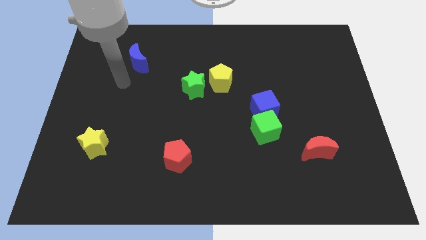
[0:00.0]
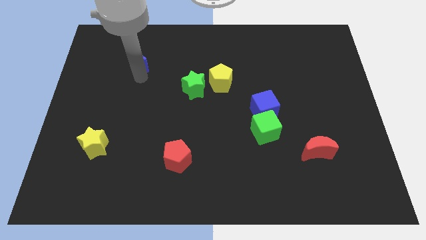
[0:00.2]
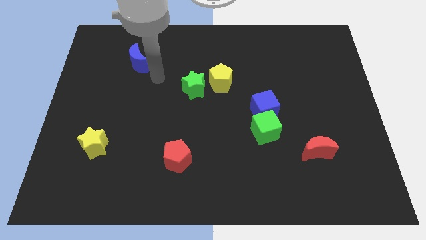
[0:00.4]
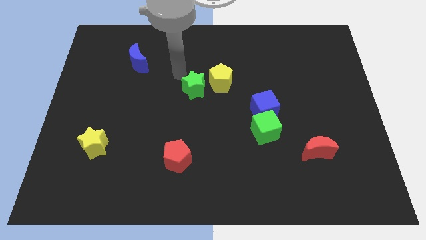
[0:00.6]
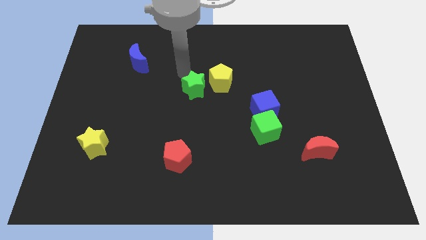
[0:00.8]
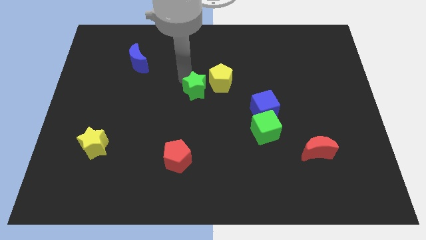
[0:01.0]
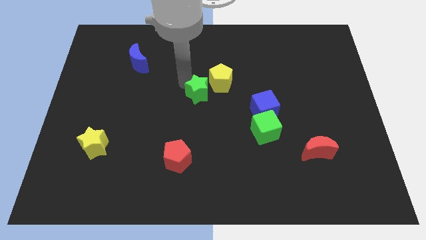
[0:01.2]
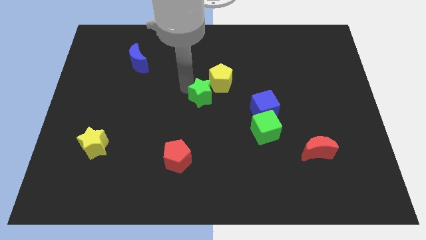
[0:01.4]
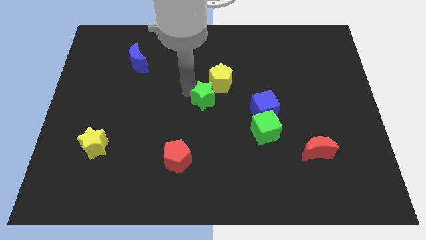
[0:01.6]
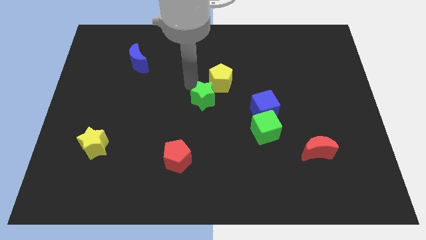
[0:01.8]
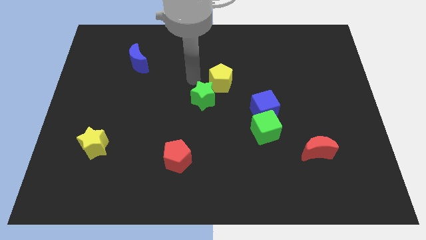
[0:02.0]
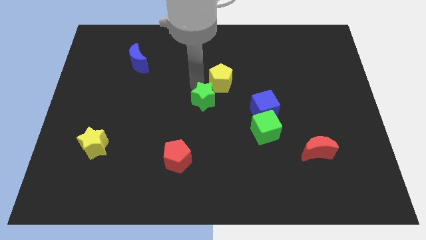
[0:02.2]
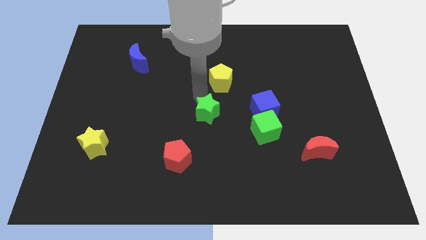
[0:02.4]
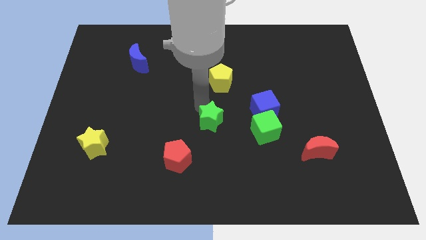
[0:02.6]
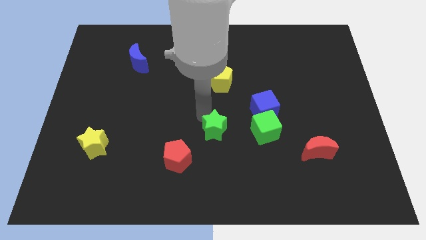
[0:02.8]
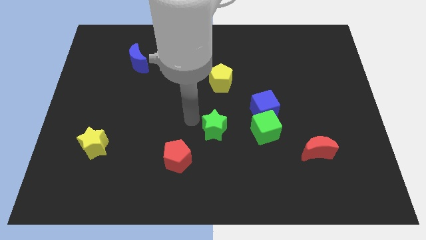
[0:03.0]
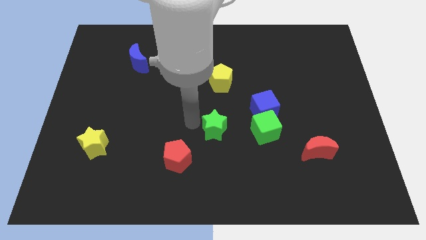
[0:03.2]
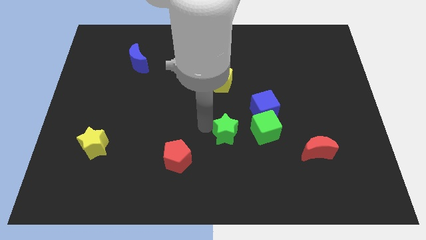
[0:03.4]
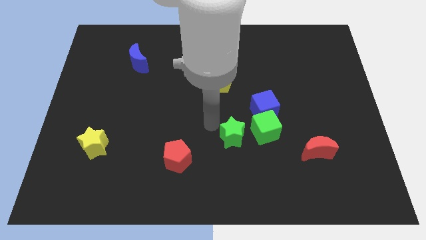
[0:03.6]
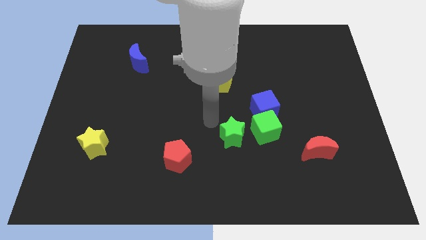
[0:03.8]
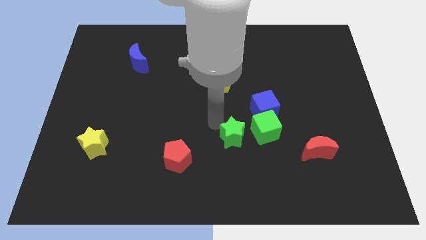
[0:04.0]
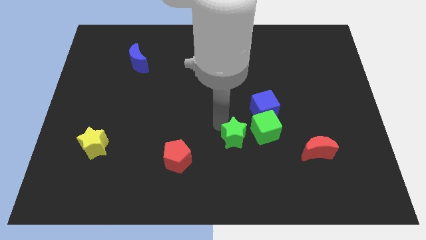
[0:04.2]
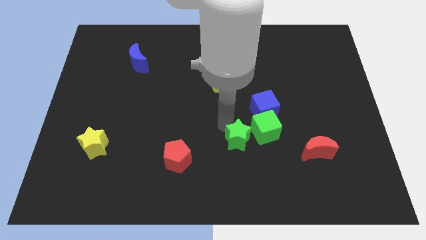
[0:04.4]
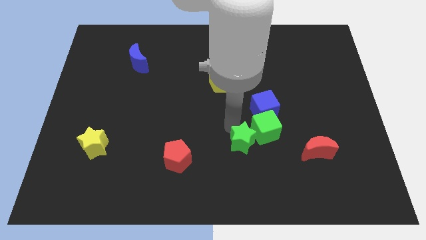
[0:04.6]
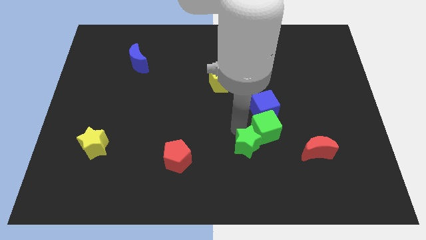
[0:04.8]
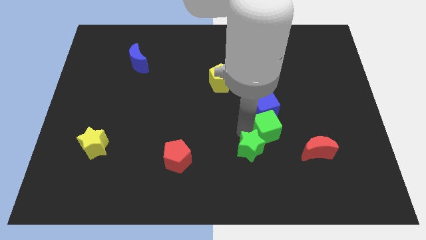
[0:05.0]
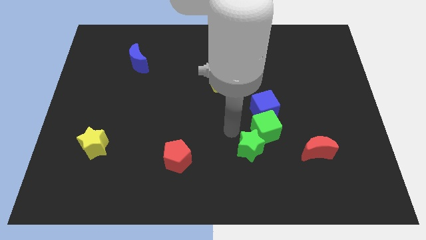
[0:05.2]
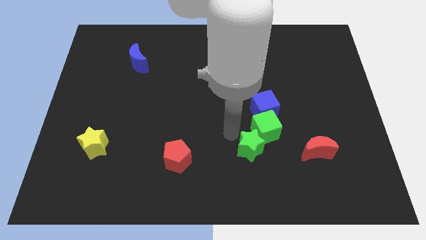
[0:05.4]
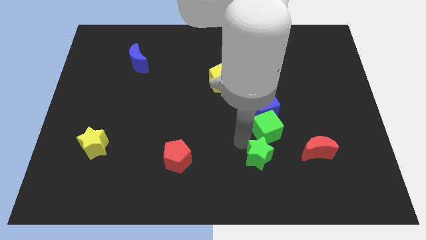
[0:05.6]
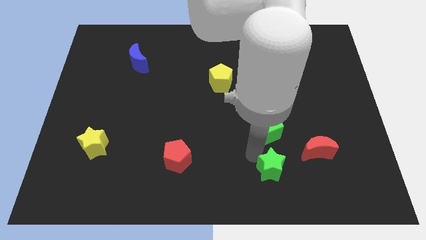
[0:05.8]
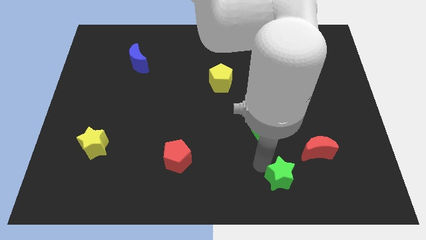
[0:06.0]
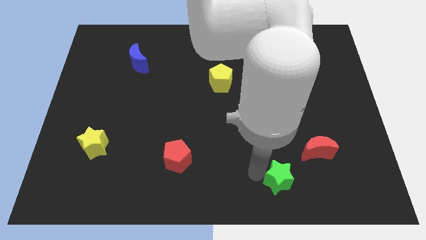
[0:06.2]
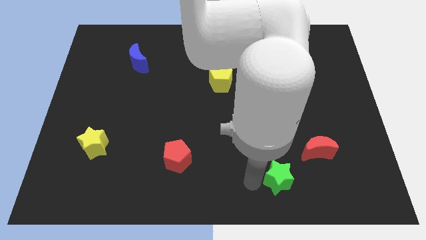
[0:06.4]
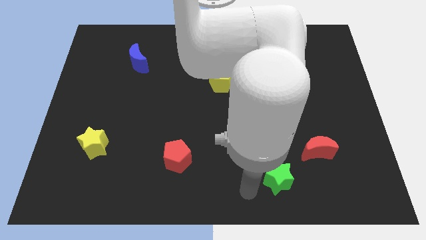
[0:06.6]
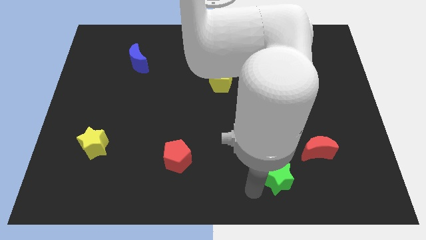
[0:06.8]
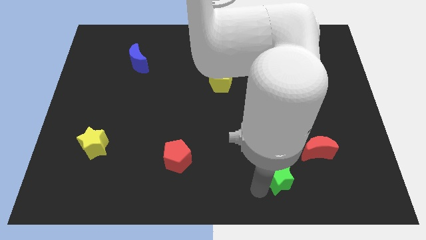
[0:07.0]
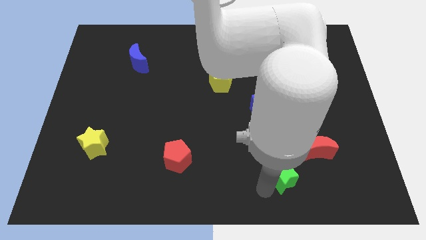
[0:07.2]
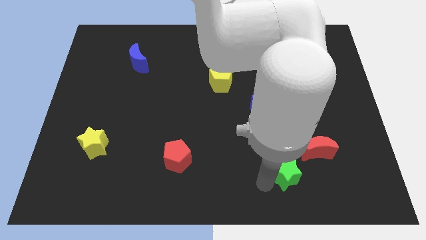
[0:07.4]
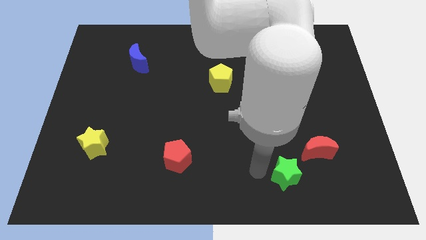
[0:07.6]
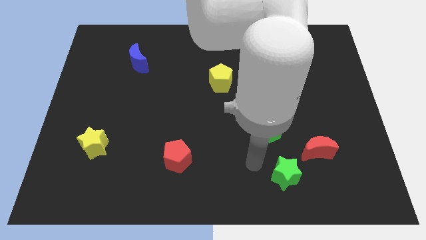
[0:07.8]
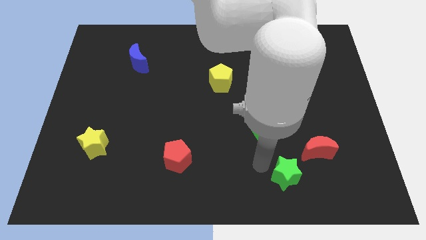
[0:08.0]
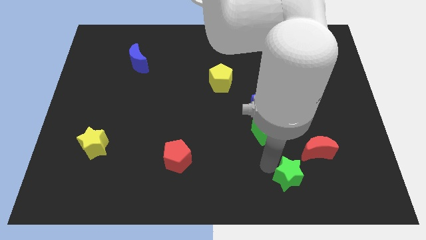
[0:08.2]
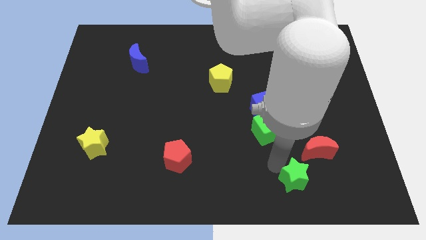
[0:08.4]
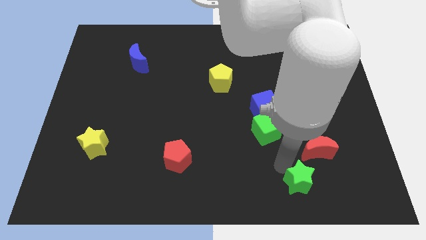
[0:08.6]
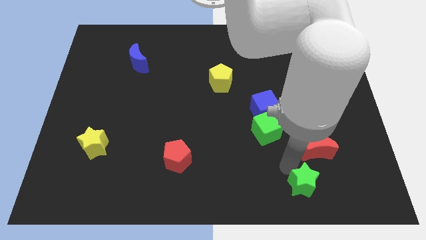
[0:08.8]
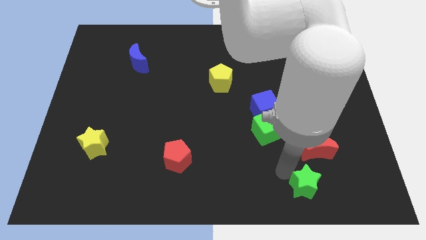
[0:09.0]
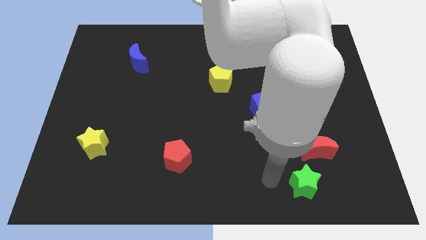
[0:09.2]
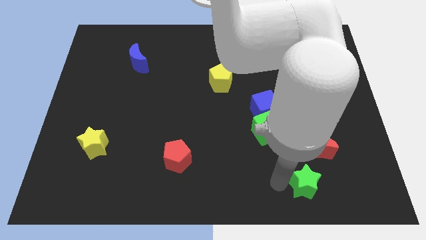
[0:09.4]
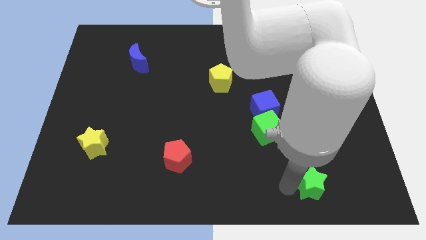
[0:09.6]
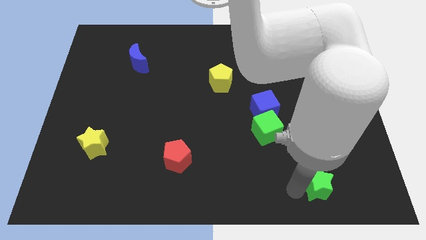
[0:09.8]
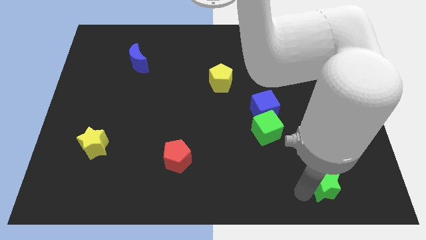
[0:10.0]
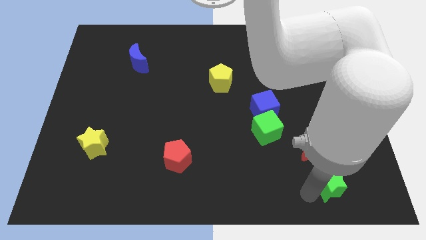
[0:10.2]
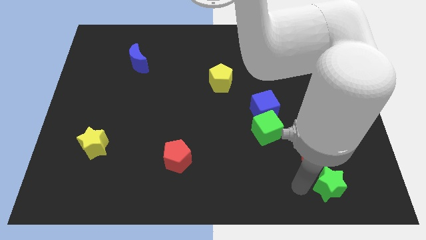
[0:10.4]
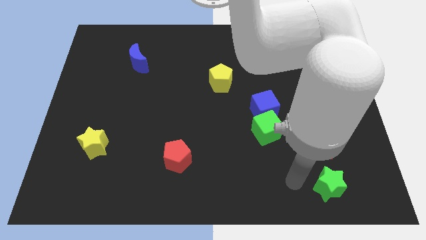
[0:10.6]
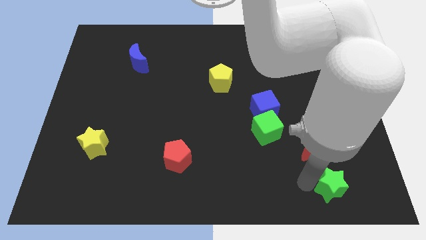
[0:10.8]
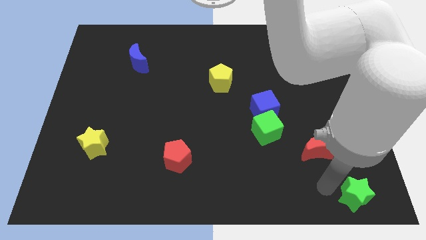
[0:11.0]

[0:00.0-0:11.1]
move the green star to the bottom right corner

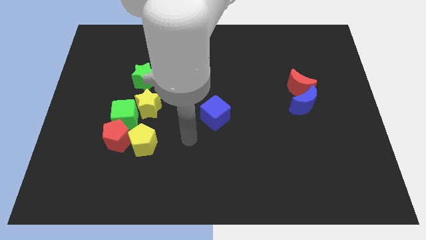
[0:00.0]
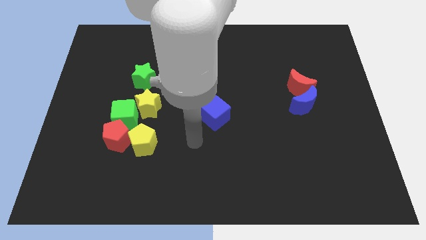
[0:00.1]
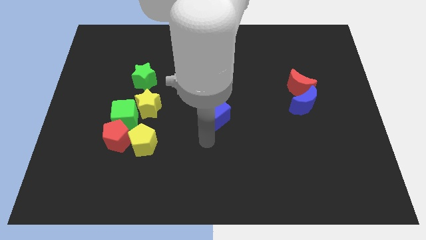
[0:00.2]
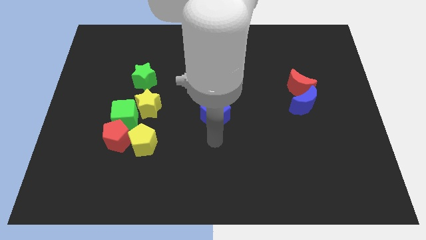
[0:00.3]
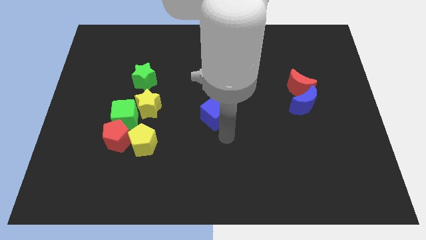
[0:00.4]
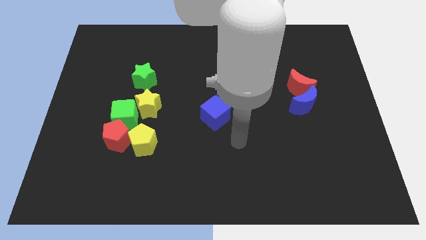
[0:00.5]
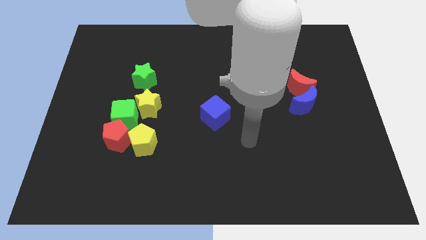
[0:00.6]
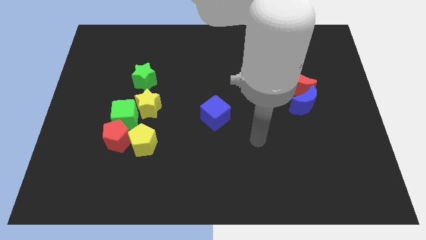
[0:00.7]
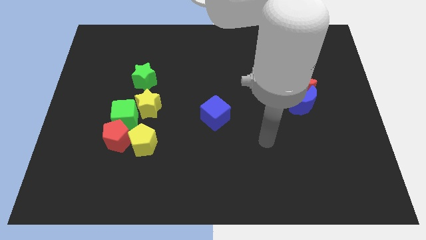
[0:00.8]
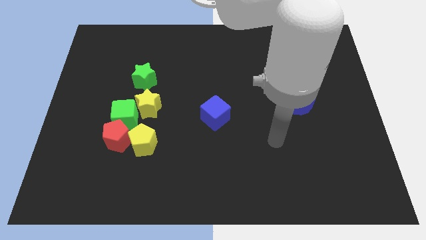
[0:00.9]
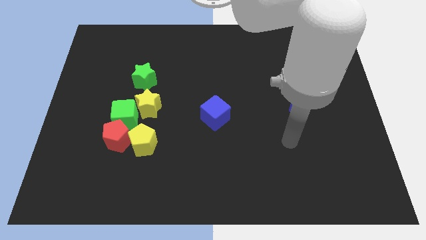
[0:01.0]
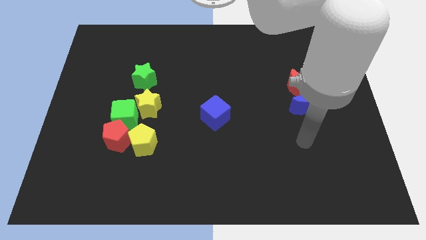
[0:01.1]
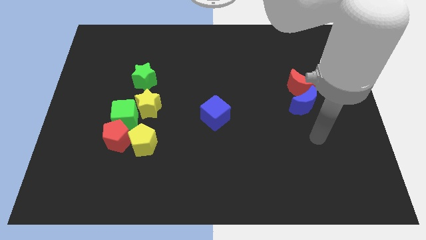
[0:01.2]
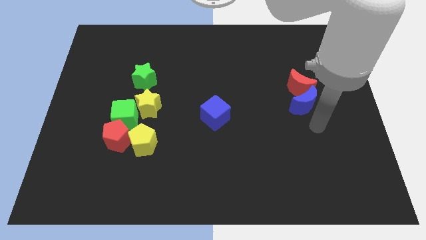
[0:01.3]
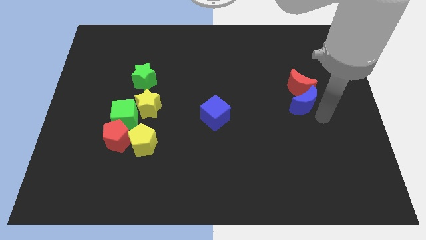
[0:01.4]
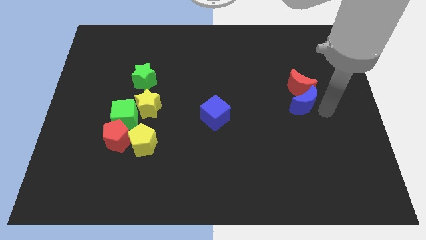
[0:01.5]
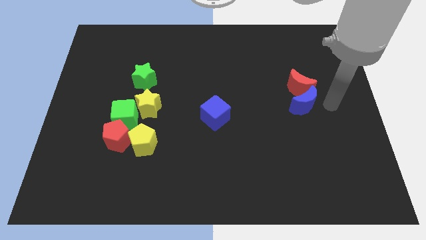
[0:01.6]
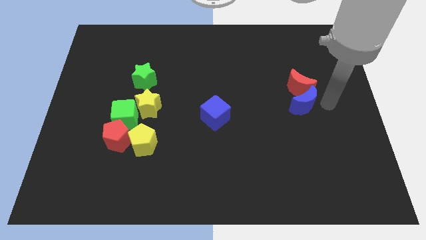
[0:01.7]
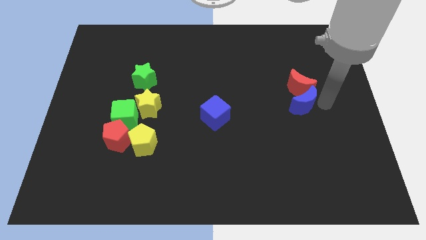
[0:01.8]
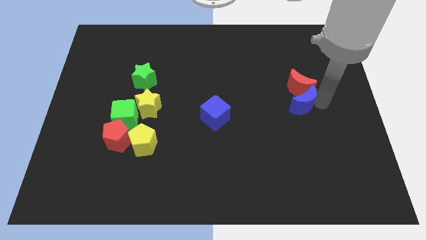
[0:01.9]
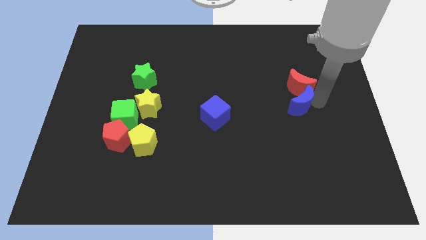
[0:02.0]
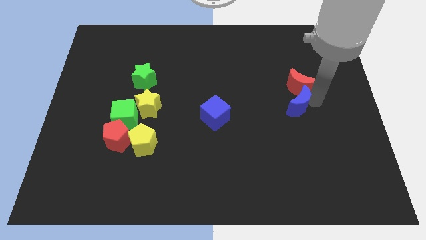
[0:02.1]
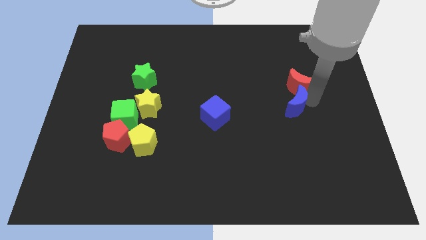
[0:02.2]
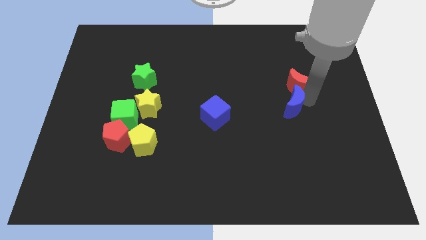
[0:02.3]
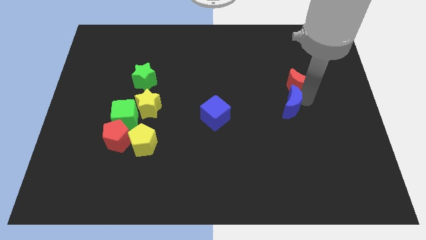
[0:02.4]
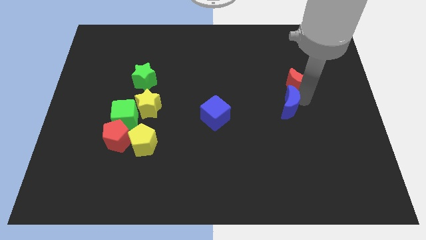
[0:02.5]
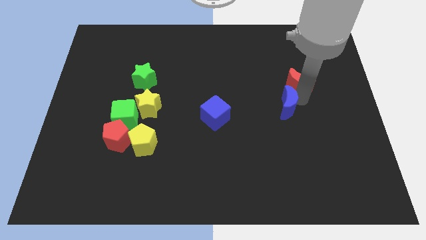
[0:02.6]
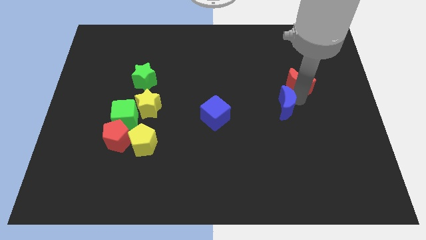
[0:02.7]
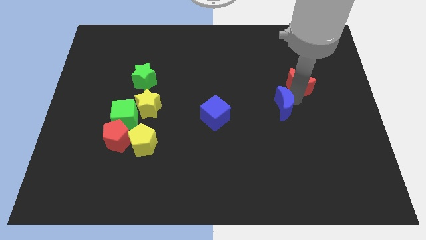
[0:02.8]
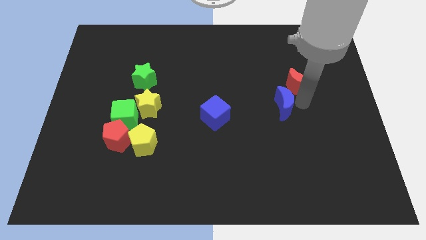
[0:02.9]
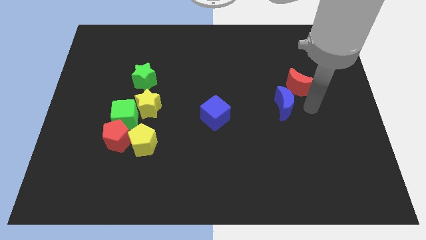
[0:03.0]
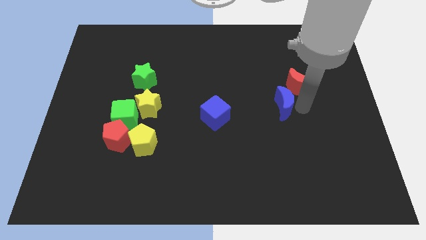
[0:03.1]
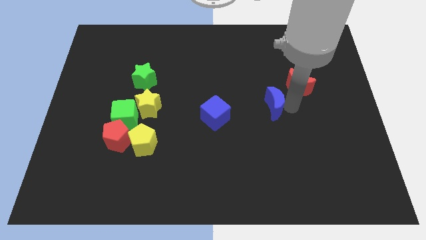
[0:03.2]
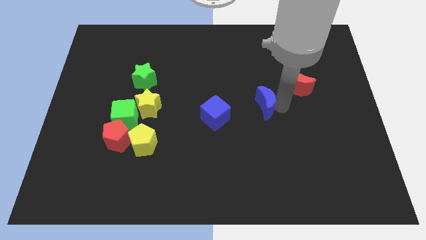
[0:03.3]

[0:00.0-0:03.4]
move the blue moon to the middle
